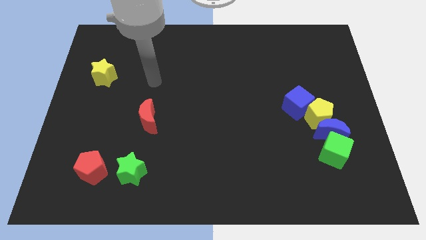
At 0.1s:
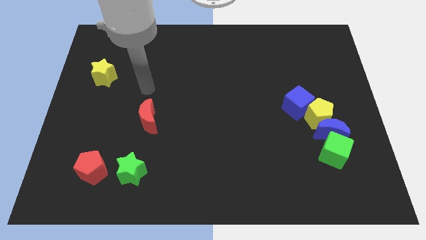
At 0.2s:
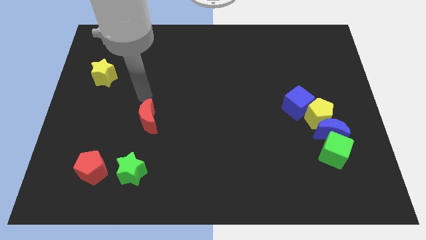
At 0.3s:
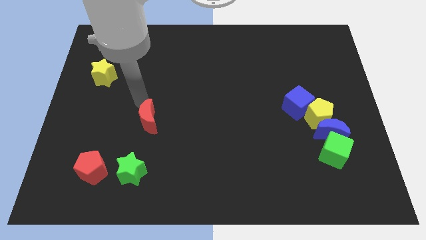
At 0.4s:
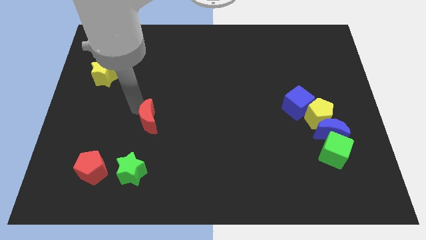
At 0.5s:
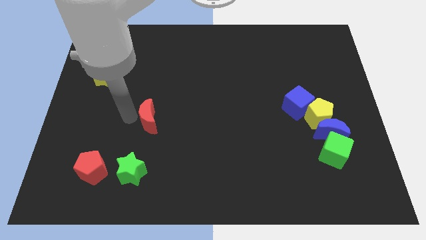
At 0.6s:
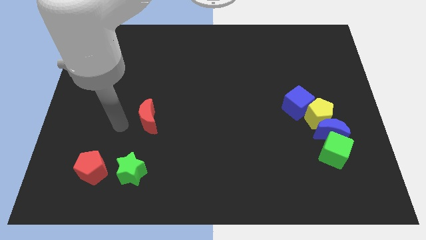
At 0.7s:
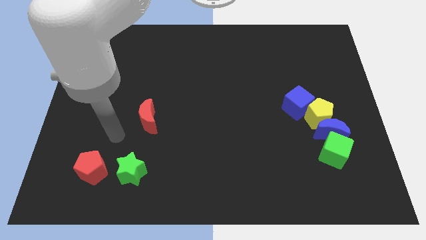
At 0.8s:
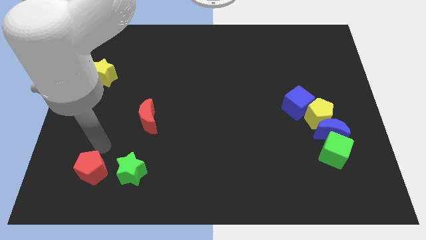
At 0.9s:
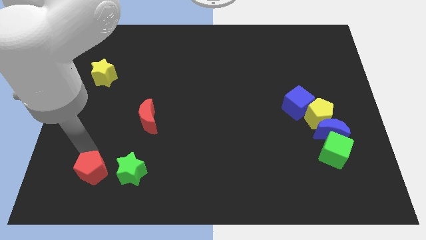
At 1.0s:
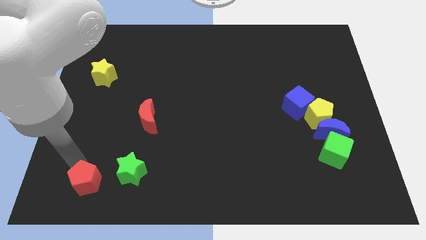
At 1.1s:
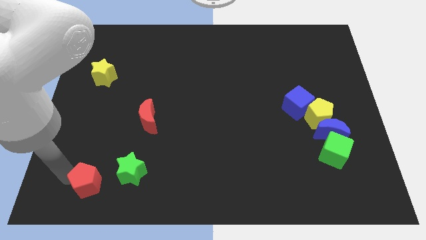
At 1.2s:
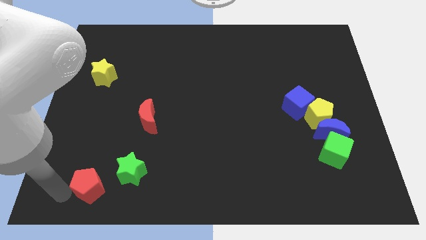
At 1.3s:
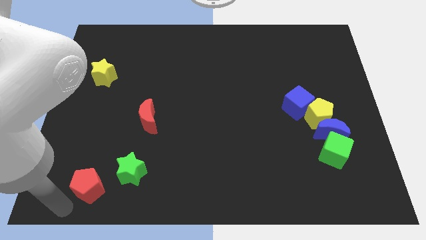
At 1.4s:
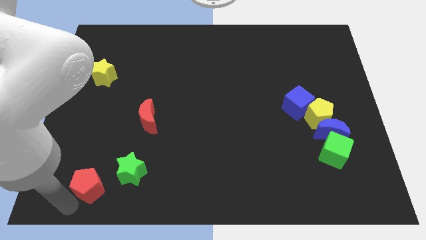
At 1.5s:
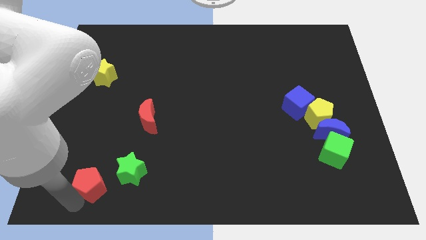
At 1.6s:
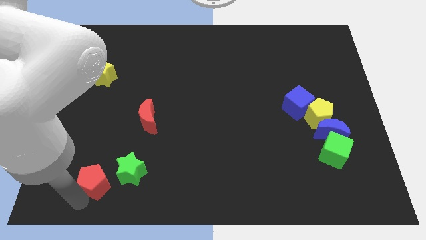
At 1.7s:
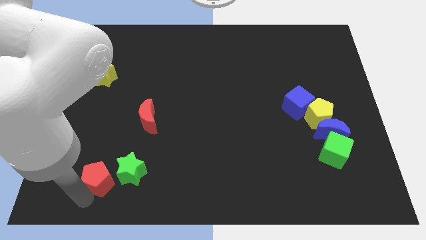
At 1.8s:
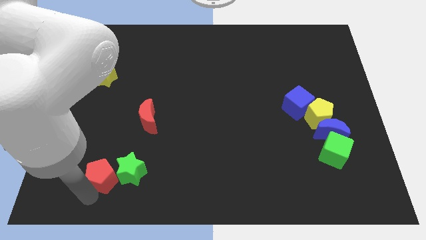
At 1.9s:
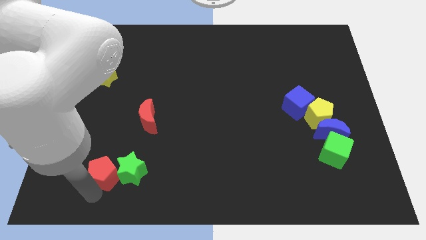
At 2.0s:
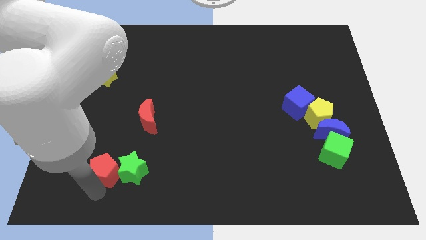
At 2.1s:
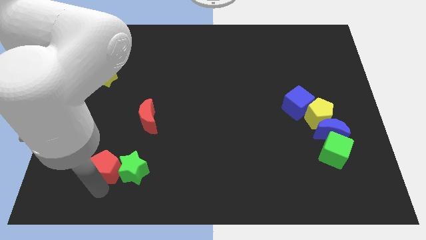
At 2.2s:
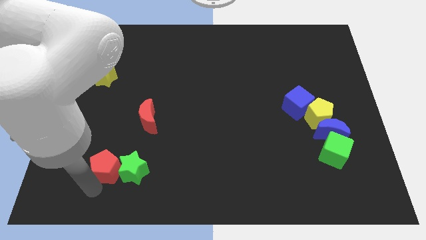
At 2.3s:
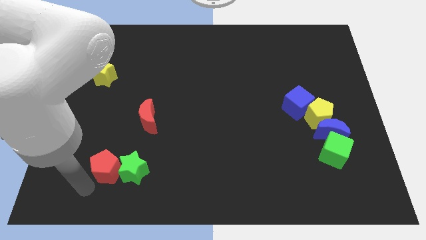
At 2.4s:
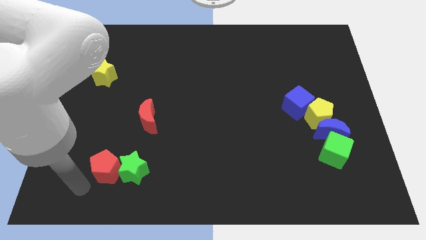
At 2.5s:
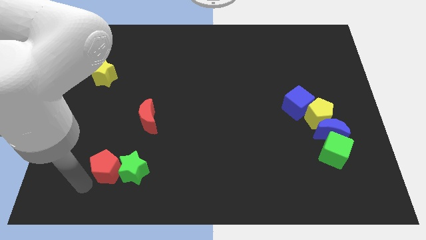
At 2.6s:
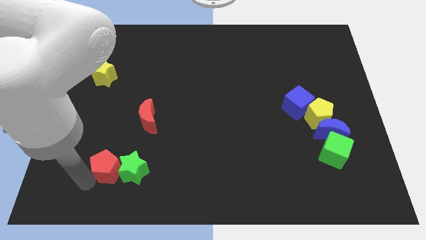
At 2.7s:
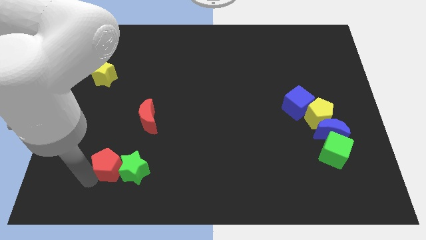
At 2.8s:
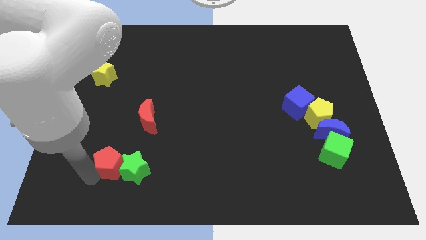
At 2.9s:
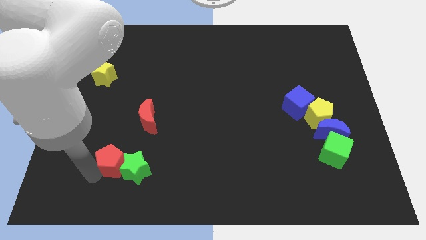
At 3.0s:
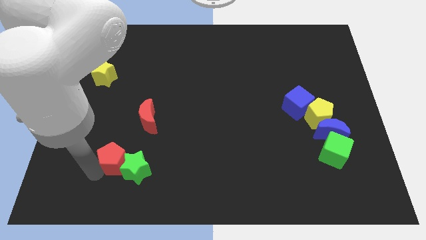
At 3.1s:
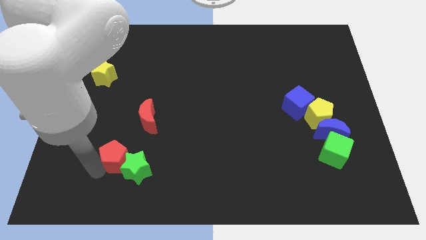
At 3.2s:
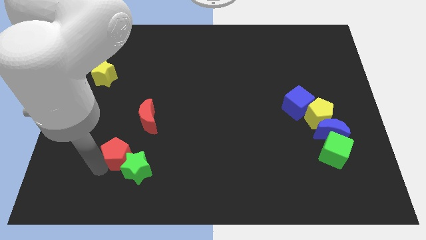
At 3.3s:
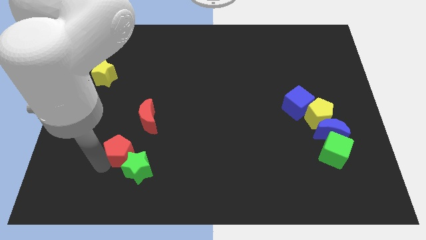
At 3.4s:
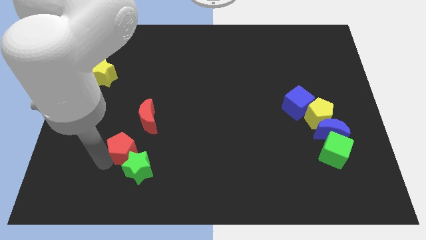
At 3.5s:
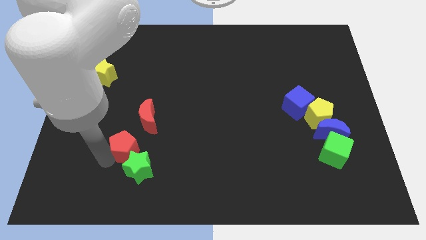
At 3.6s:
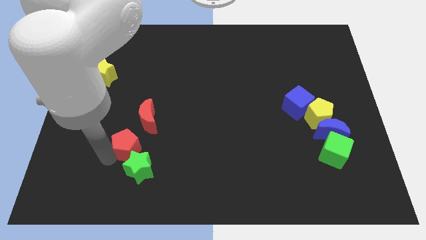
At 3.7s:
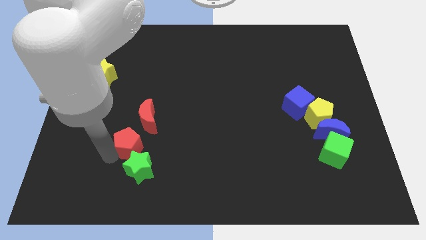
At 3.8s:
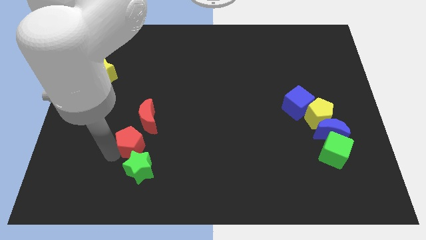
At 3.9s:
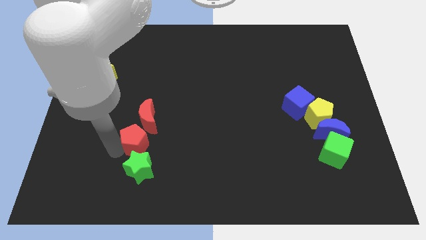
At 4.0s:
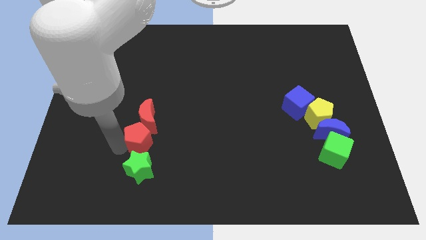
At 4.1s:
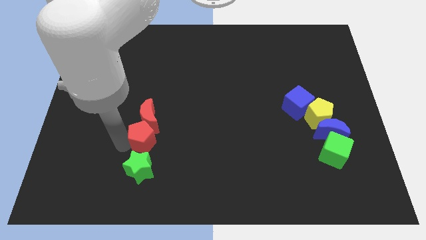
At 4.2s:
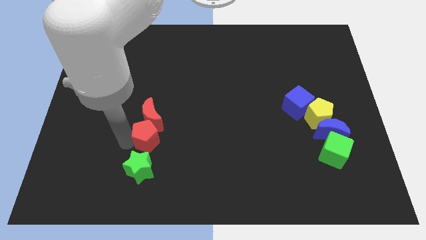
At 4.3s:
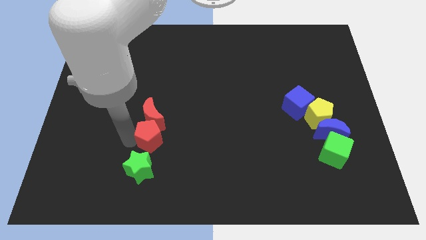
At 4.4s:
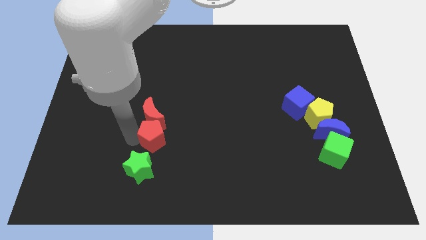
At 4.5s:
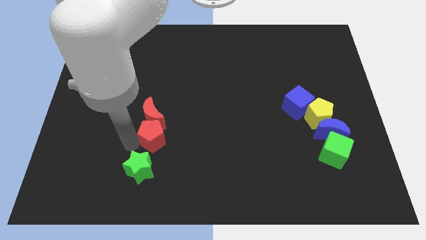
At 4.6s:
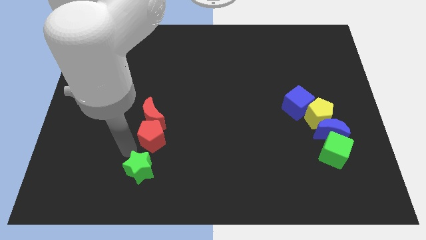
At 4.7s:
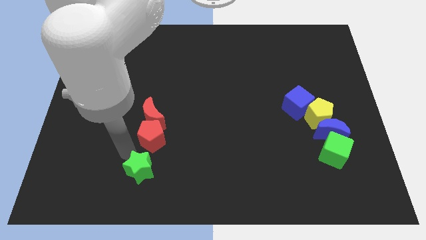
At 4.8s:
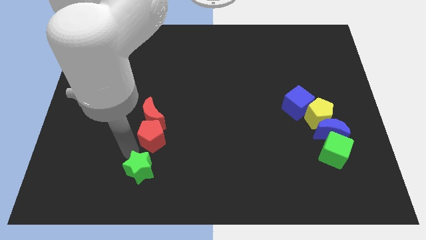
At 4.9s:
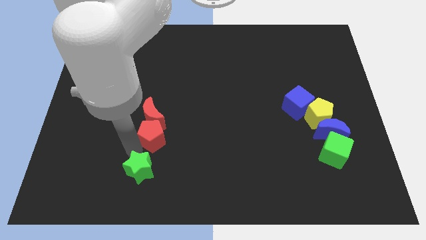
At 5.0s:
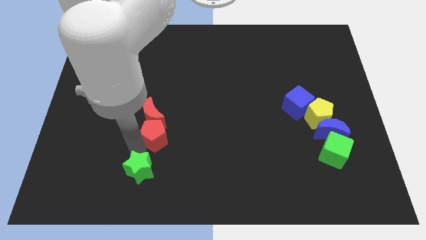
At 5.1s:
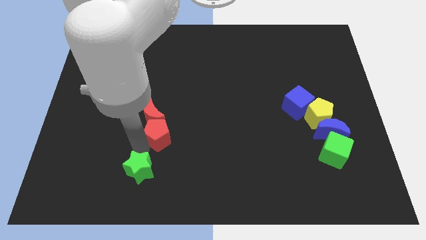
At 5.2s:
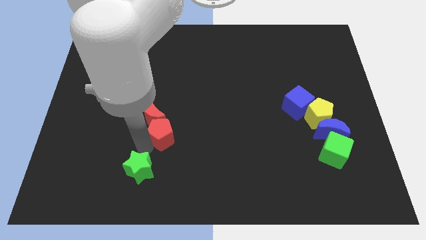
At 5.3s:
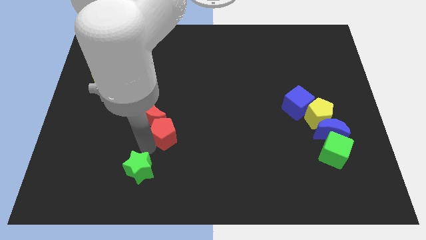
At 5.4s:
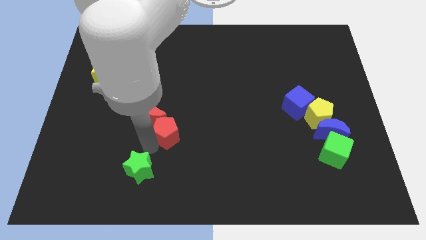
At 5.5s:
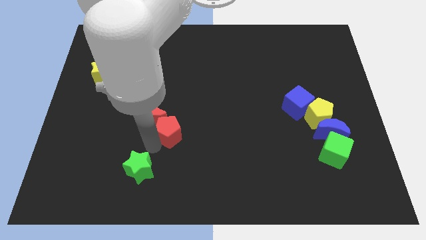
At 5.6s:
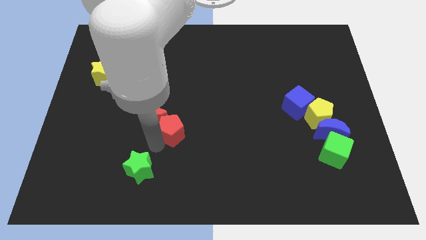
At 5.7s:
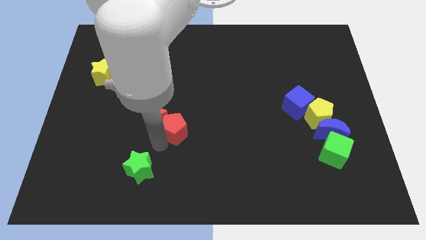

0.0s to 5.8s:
move the red pentagon to the center of the board

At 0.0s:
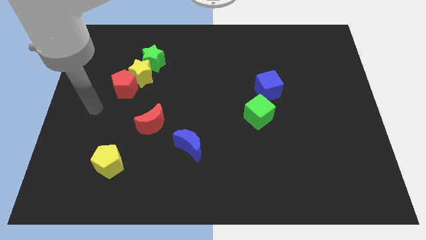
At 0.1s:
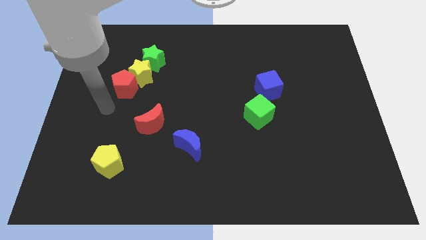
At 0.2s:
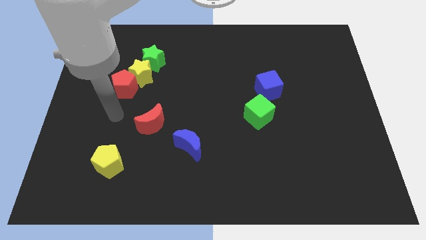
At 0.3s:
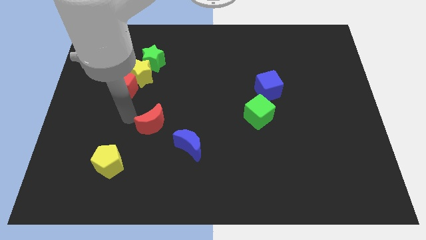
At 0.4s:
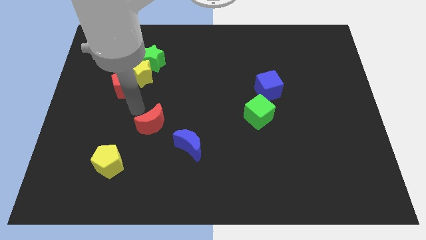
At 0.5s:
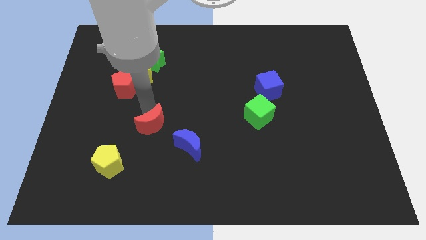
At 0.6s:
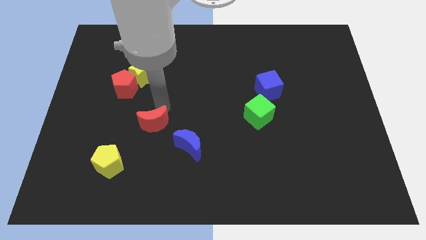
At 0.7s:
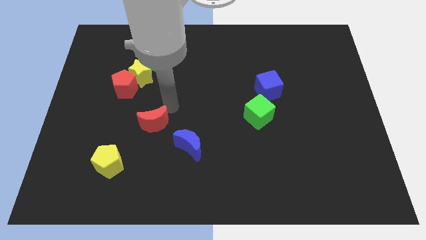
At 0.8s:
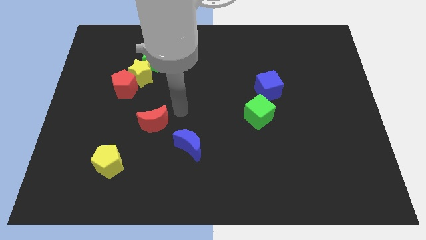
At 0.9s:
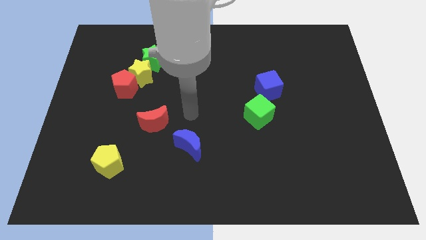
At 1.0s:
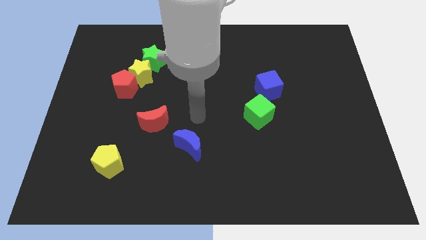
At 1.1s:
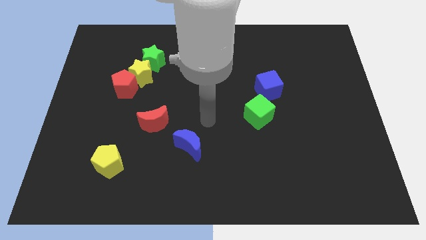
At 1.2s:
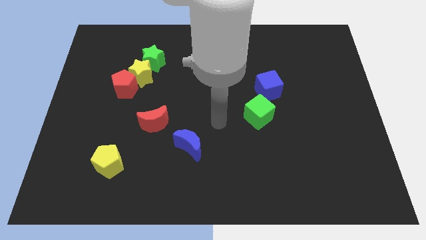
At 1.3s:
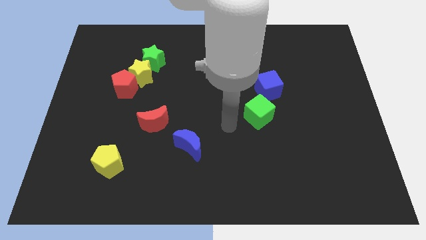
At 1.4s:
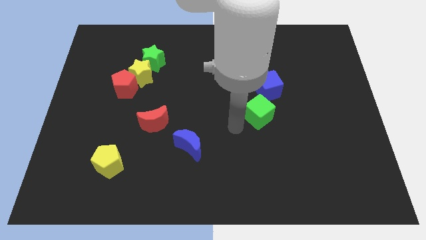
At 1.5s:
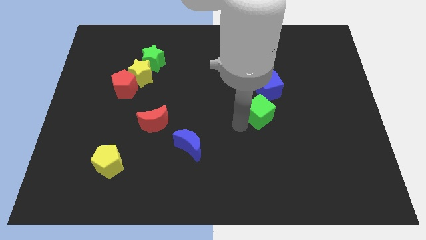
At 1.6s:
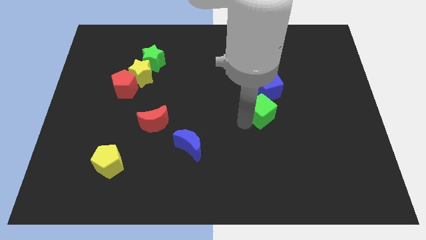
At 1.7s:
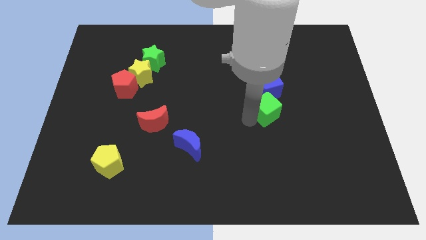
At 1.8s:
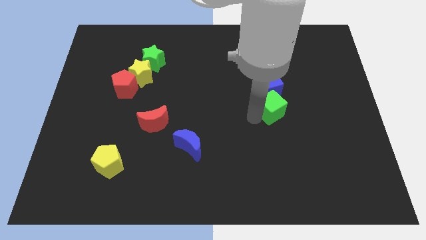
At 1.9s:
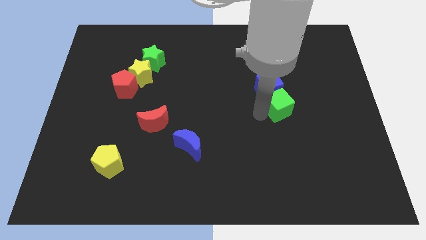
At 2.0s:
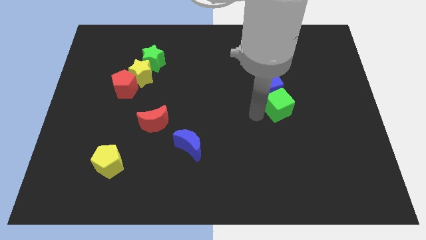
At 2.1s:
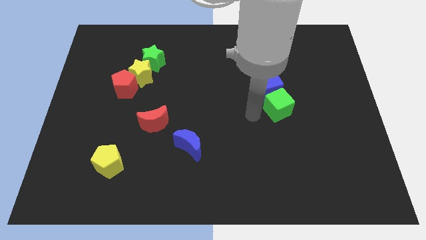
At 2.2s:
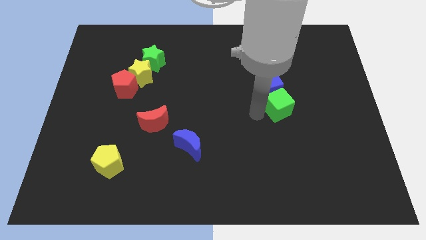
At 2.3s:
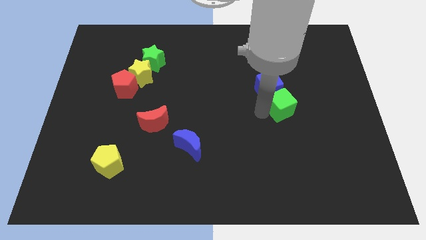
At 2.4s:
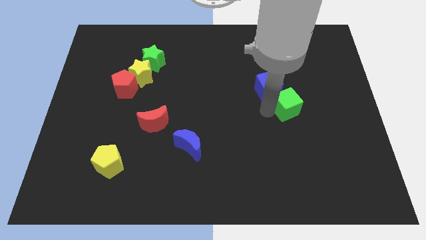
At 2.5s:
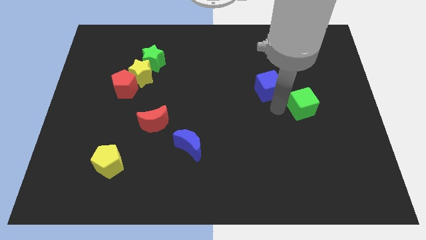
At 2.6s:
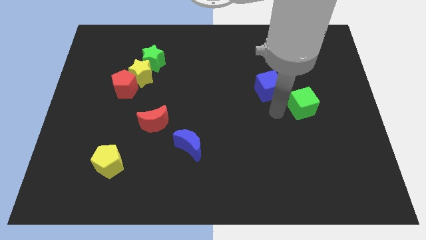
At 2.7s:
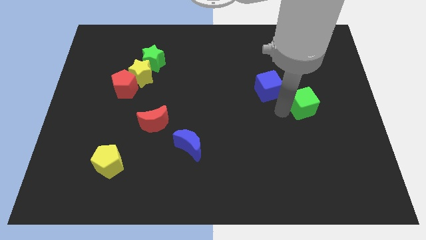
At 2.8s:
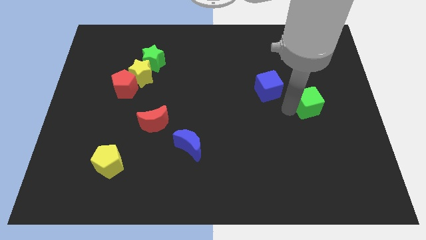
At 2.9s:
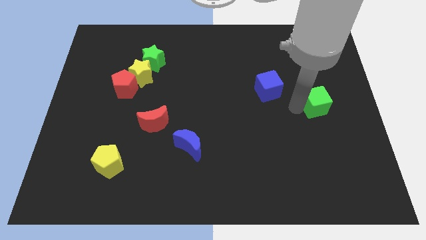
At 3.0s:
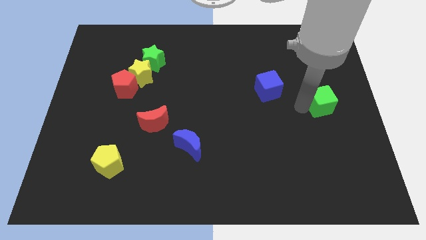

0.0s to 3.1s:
put the green cube to the right side
